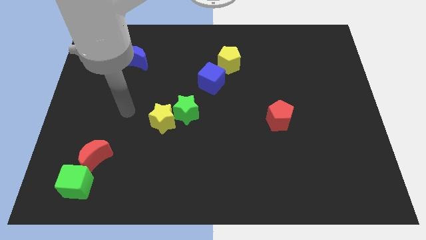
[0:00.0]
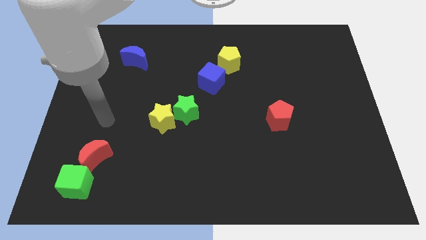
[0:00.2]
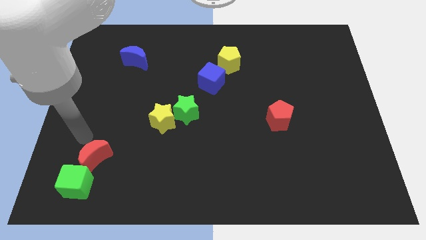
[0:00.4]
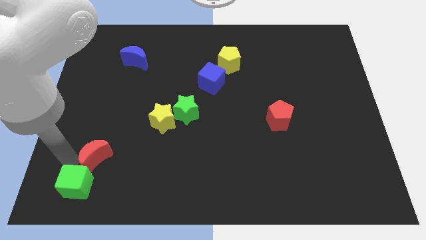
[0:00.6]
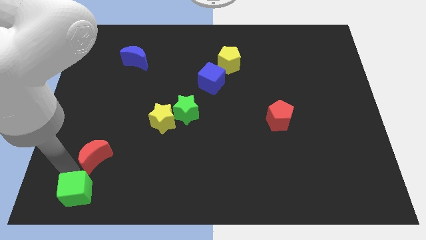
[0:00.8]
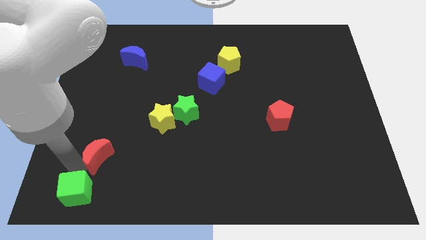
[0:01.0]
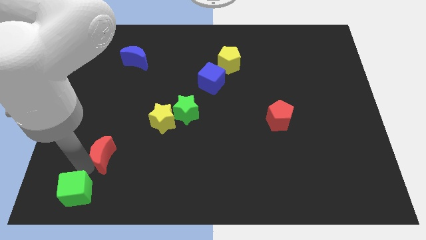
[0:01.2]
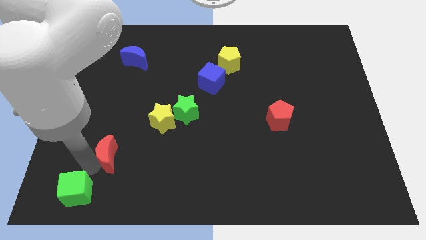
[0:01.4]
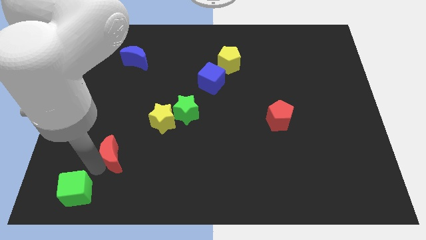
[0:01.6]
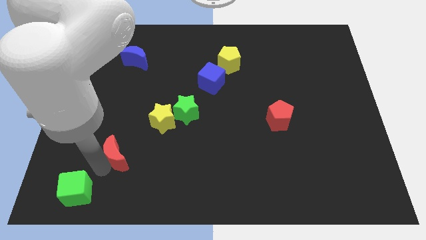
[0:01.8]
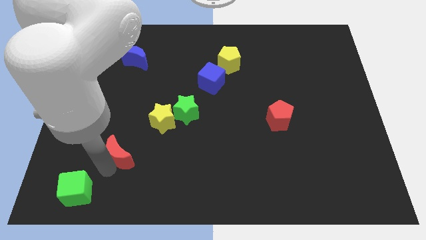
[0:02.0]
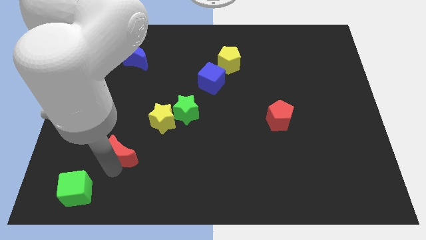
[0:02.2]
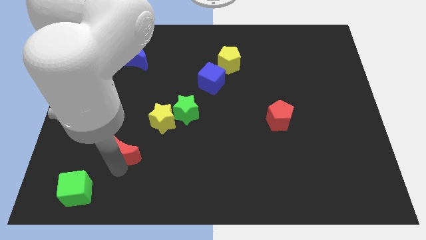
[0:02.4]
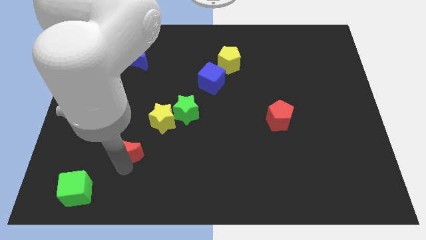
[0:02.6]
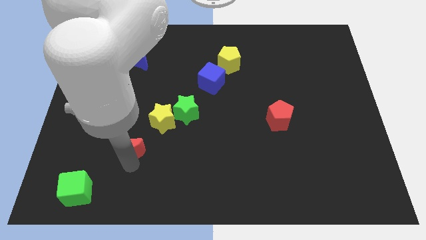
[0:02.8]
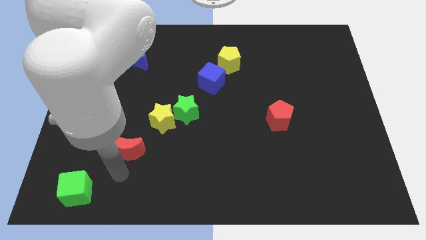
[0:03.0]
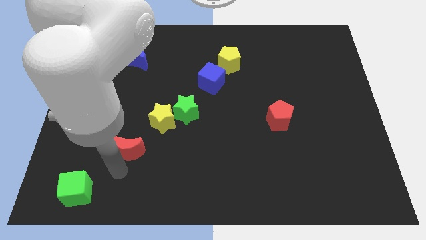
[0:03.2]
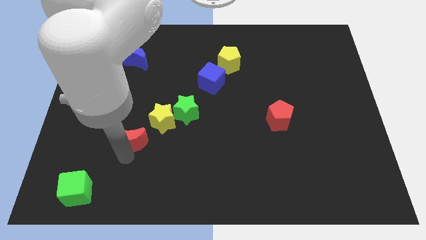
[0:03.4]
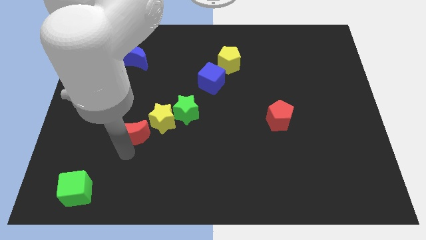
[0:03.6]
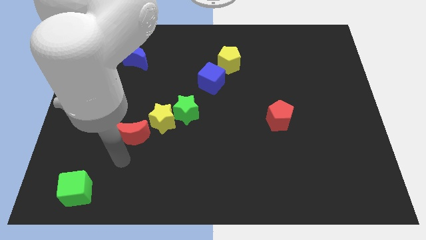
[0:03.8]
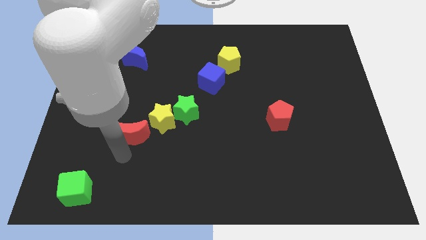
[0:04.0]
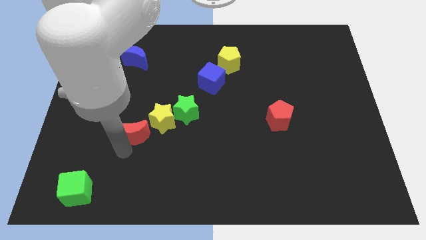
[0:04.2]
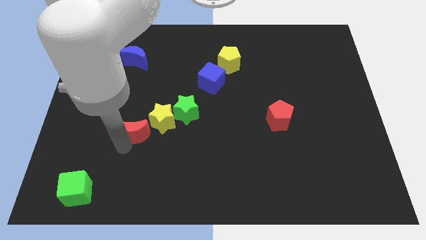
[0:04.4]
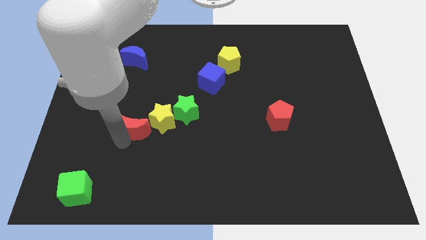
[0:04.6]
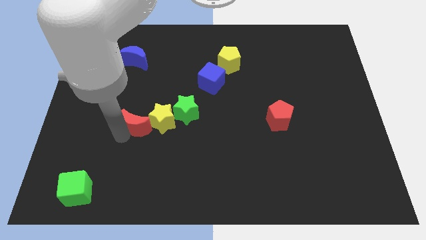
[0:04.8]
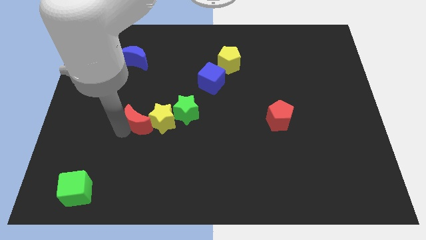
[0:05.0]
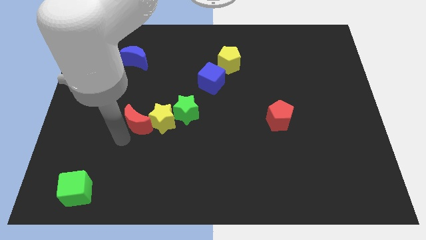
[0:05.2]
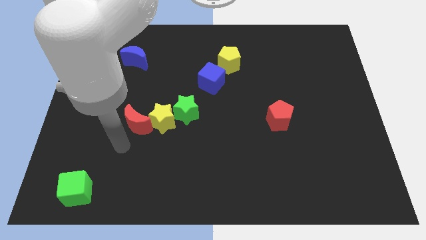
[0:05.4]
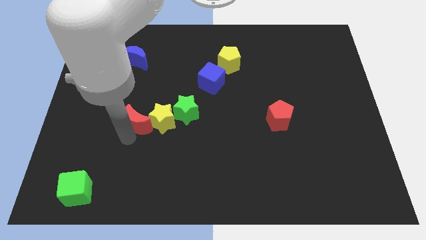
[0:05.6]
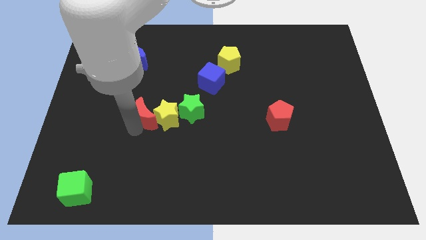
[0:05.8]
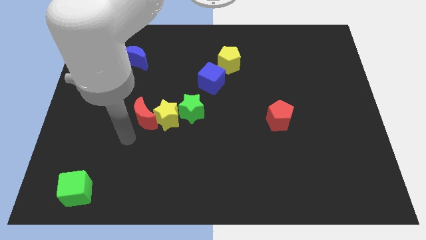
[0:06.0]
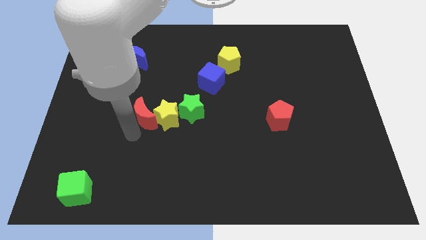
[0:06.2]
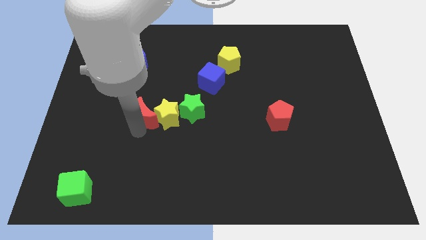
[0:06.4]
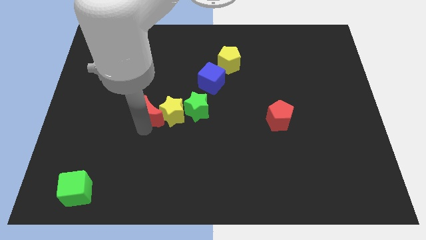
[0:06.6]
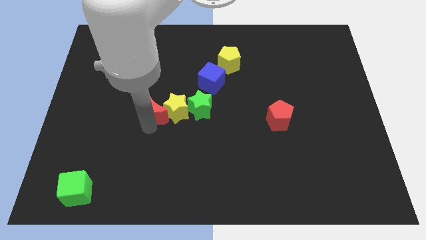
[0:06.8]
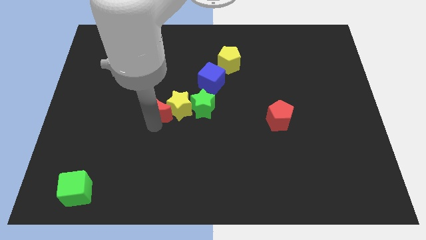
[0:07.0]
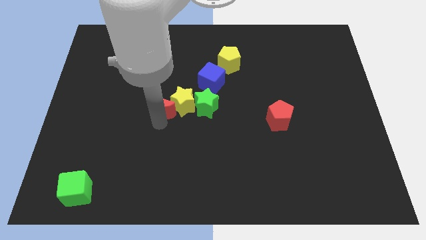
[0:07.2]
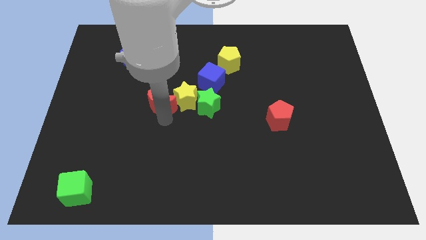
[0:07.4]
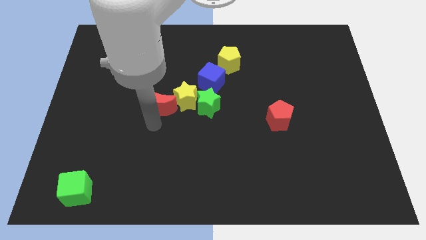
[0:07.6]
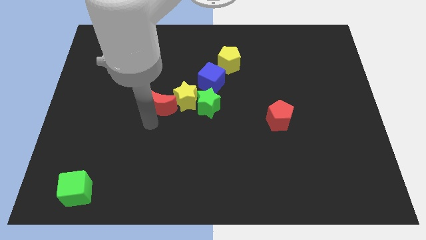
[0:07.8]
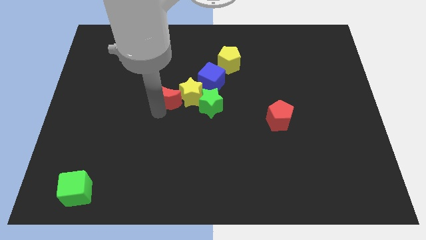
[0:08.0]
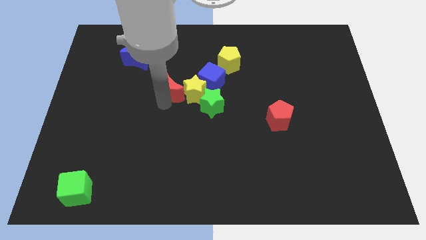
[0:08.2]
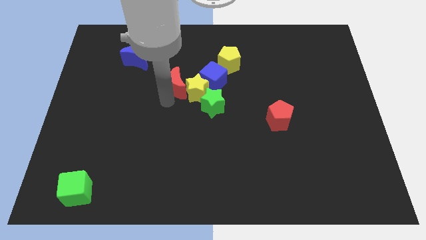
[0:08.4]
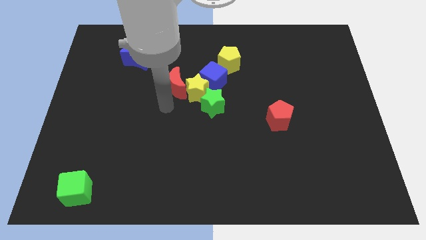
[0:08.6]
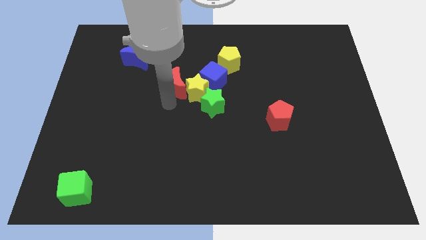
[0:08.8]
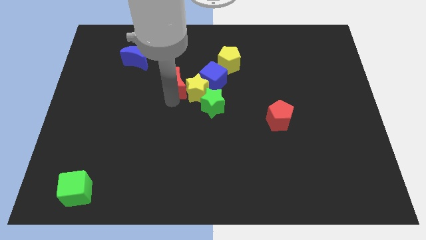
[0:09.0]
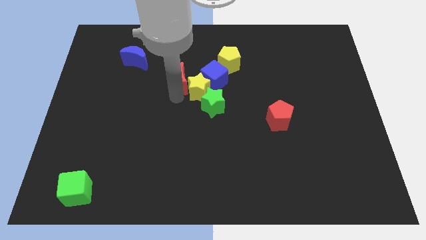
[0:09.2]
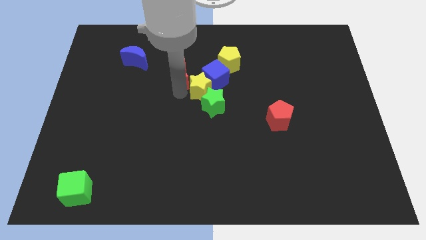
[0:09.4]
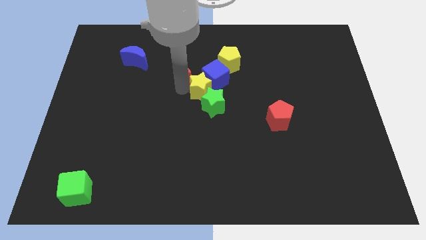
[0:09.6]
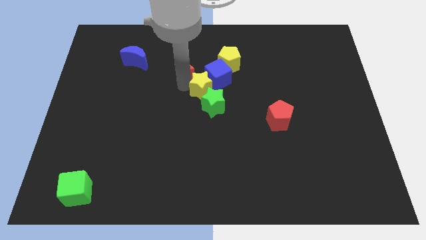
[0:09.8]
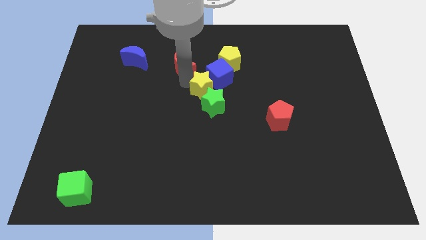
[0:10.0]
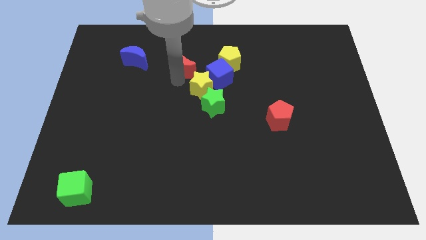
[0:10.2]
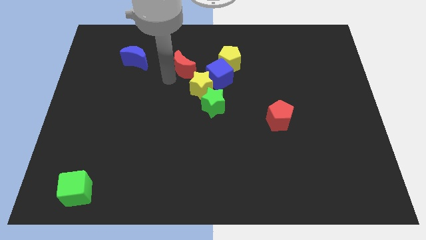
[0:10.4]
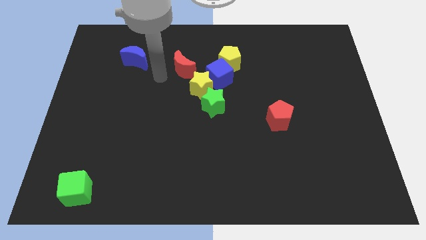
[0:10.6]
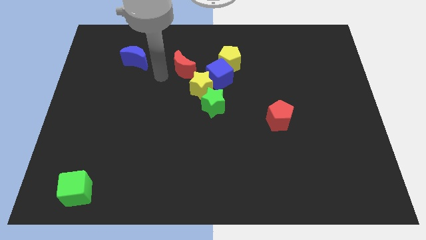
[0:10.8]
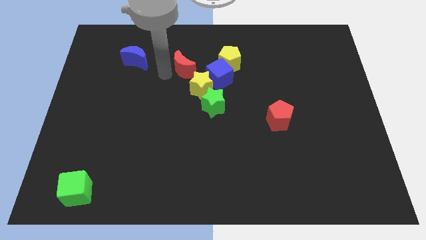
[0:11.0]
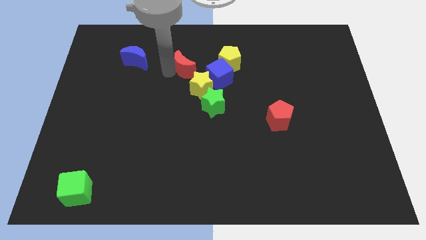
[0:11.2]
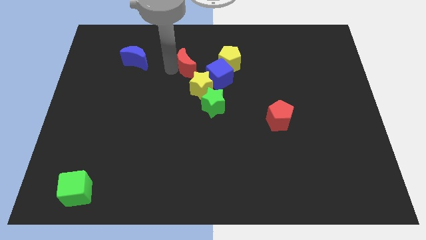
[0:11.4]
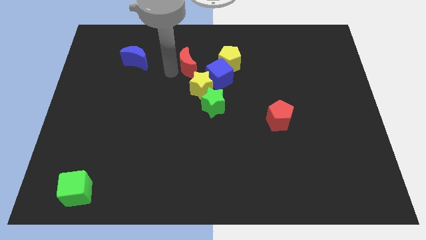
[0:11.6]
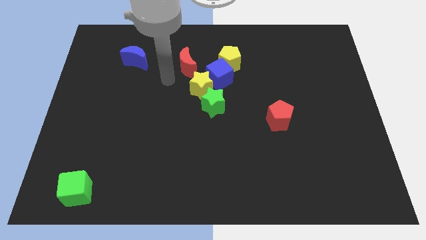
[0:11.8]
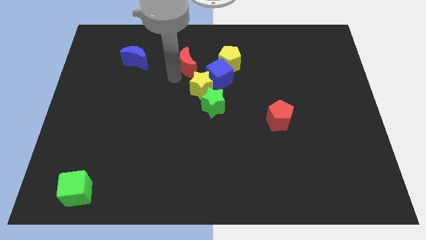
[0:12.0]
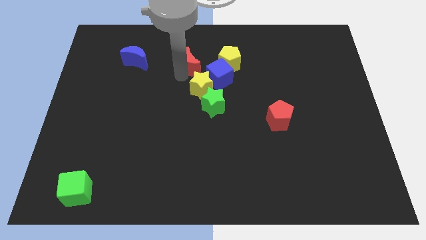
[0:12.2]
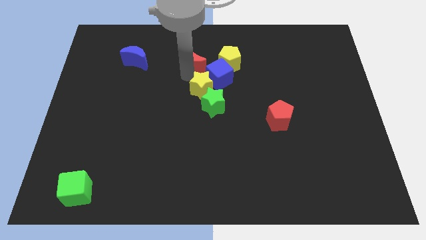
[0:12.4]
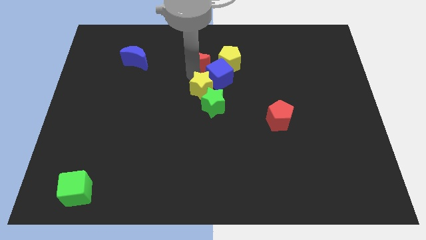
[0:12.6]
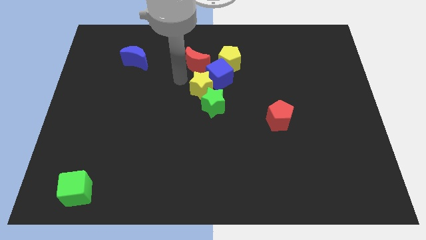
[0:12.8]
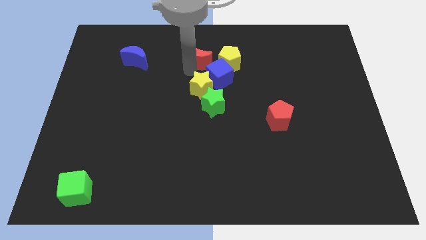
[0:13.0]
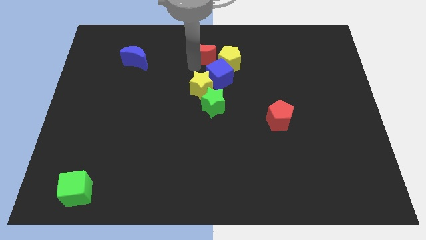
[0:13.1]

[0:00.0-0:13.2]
push the red moon to the towards your base
